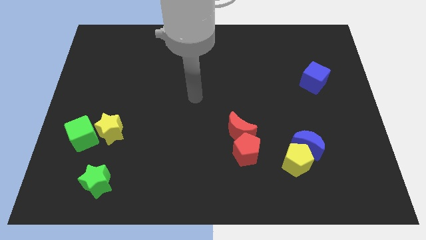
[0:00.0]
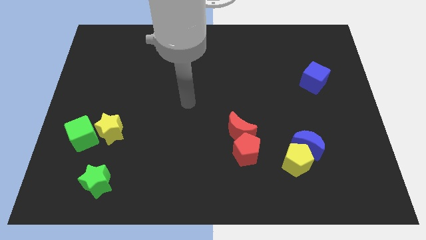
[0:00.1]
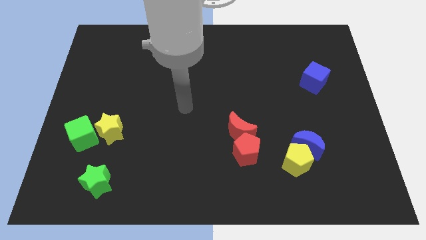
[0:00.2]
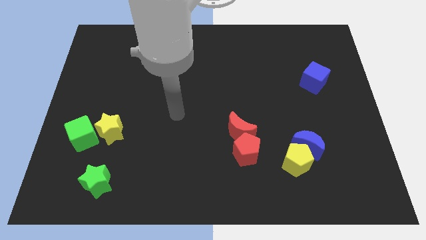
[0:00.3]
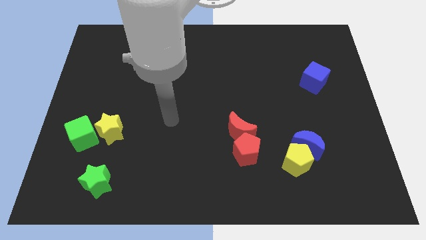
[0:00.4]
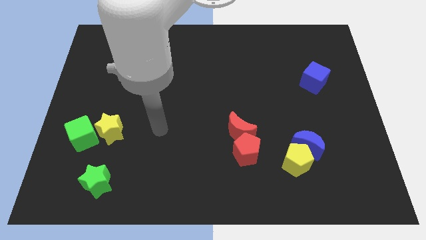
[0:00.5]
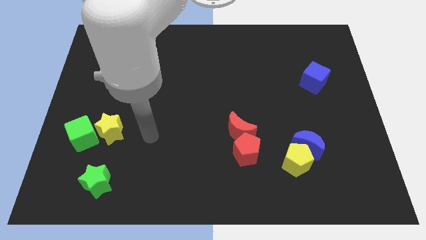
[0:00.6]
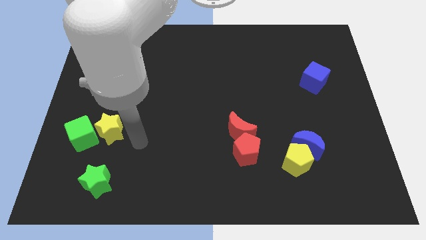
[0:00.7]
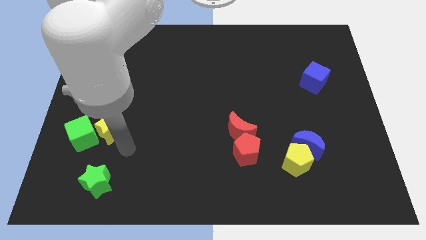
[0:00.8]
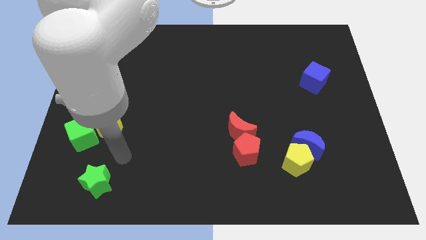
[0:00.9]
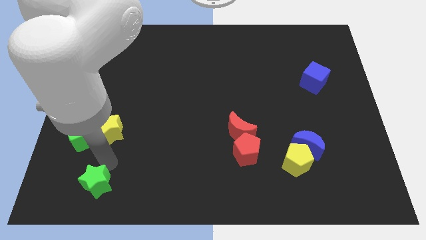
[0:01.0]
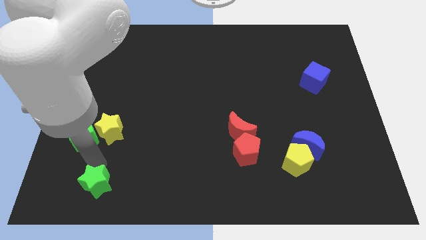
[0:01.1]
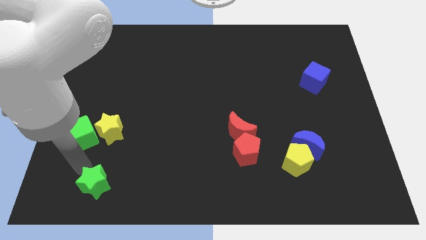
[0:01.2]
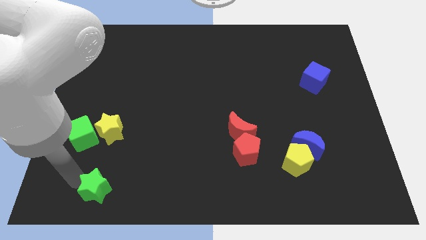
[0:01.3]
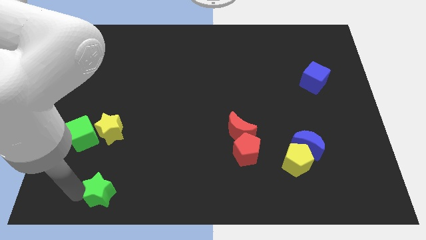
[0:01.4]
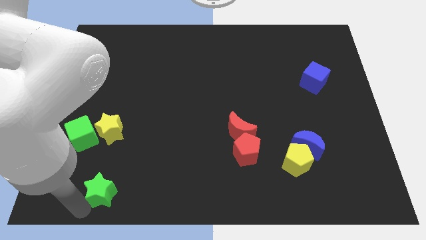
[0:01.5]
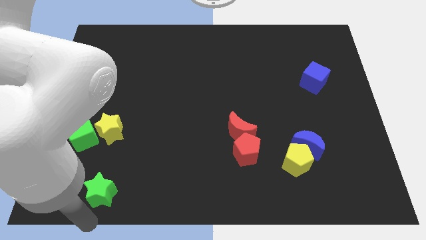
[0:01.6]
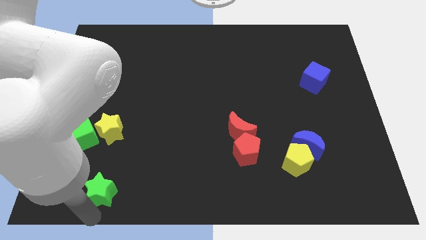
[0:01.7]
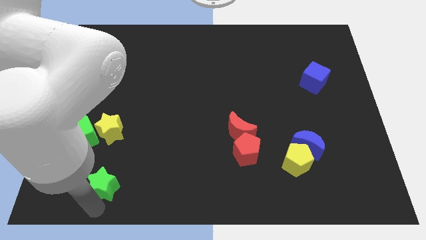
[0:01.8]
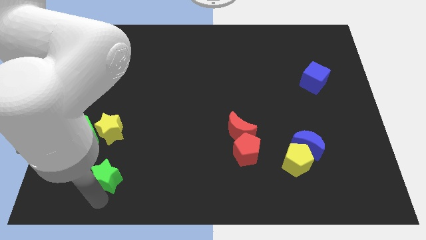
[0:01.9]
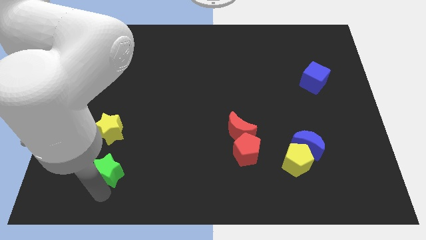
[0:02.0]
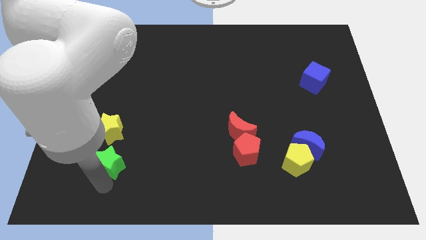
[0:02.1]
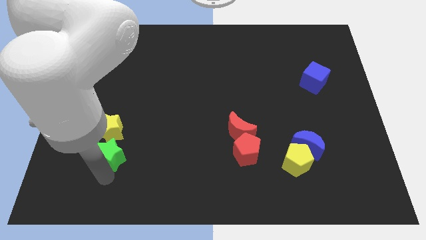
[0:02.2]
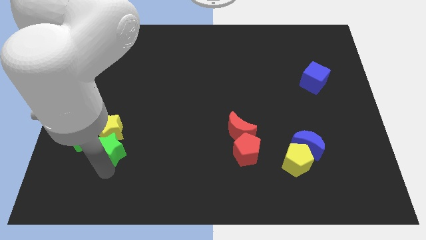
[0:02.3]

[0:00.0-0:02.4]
slide the green star up a little

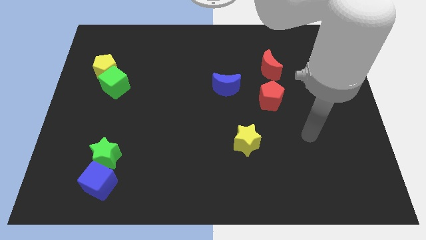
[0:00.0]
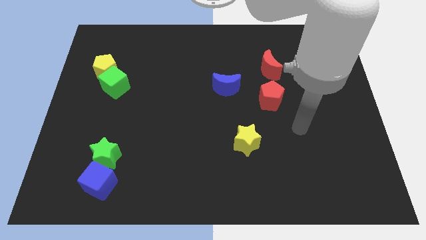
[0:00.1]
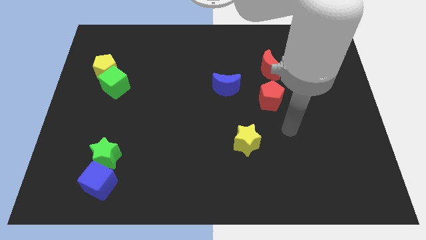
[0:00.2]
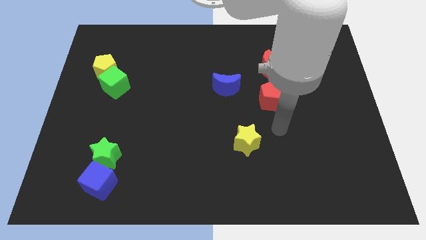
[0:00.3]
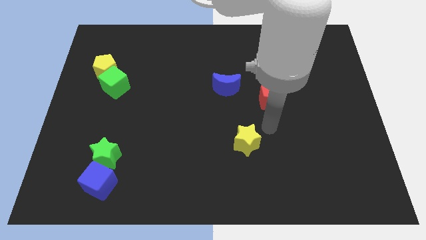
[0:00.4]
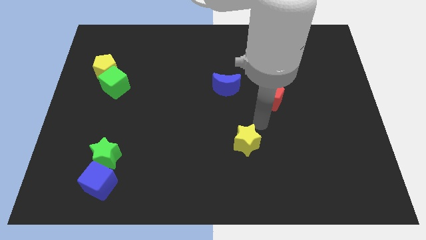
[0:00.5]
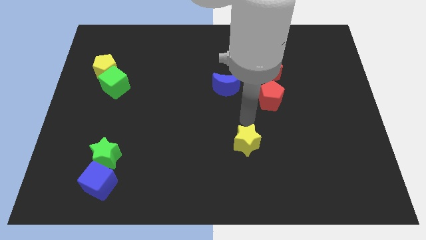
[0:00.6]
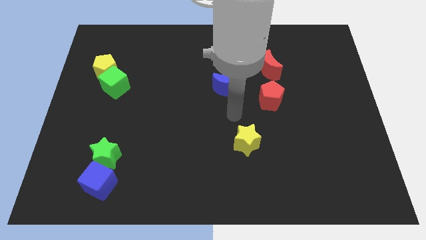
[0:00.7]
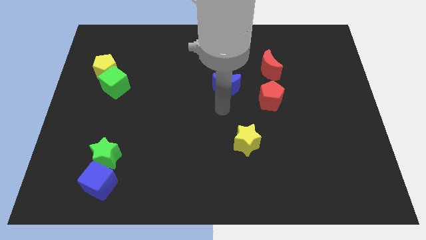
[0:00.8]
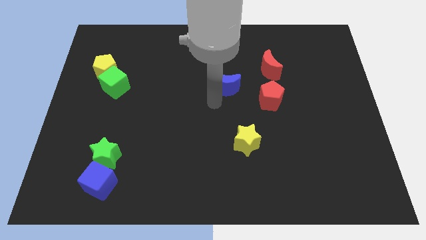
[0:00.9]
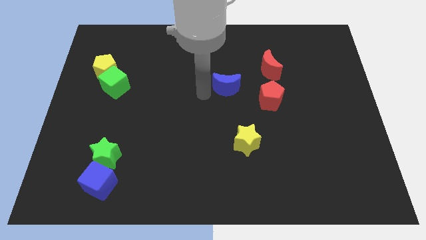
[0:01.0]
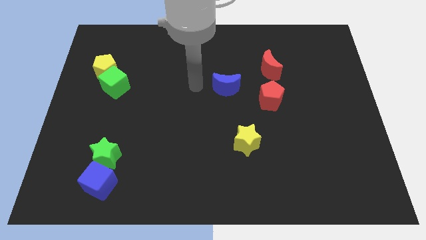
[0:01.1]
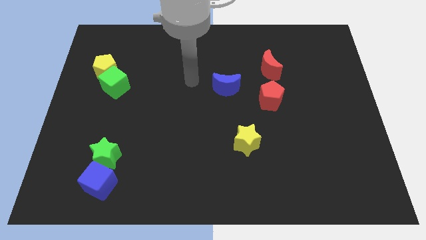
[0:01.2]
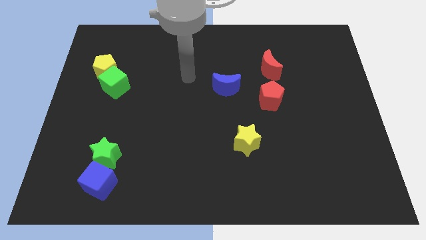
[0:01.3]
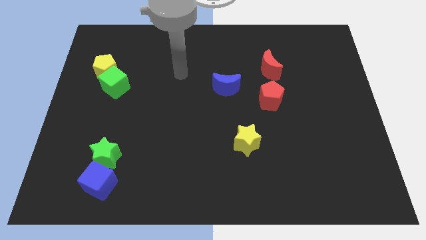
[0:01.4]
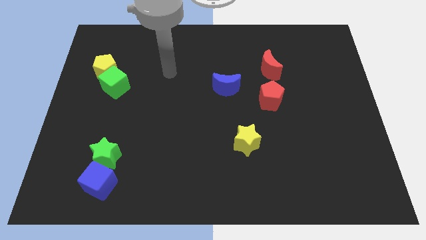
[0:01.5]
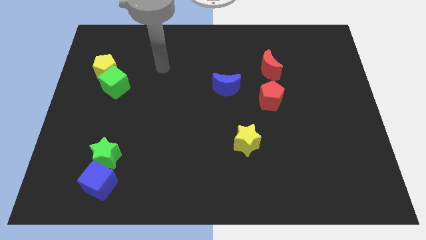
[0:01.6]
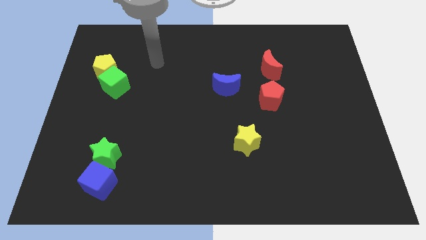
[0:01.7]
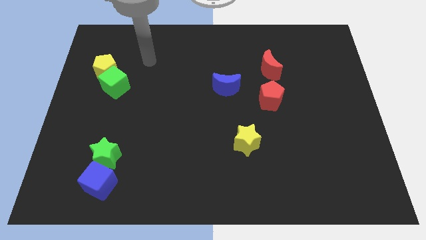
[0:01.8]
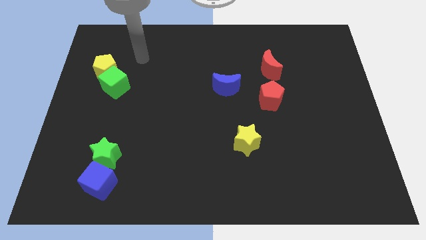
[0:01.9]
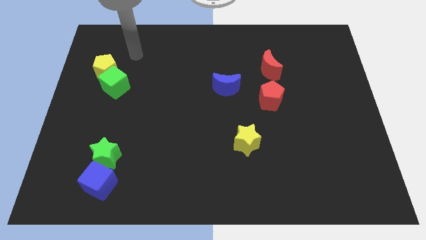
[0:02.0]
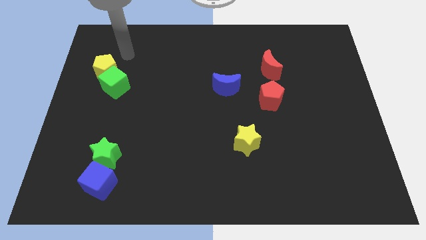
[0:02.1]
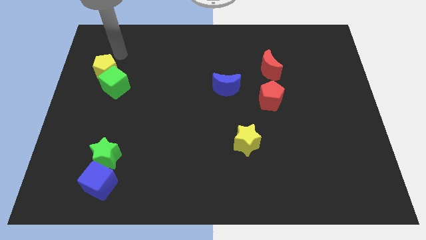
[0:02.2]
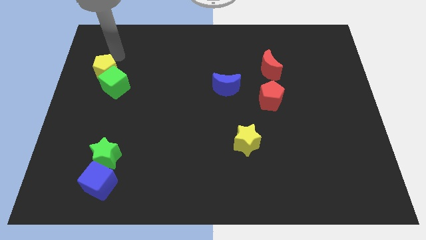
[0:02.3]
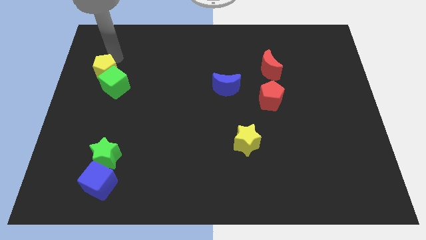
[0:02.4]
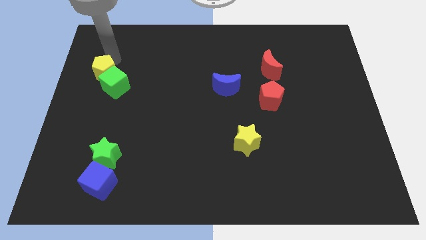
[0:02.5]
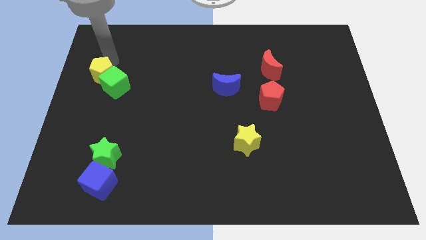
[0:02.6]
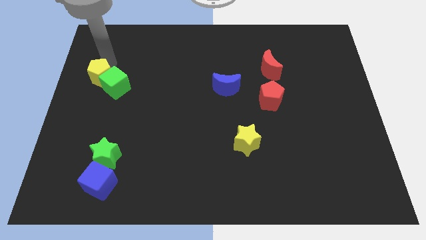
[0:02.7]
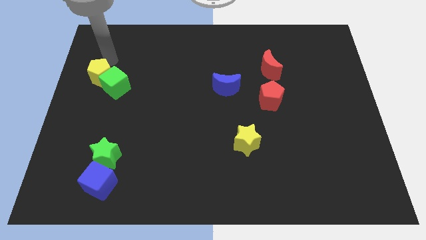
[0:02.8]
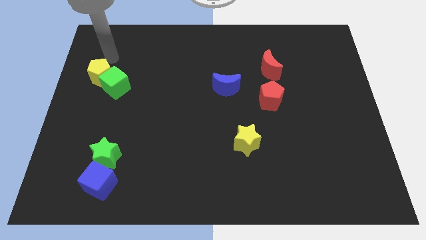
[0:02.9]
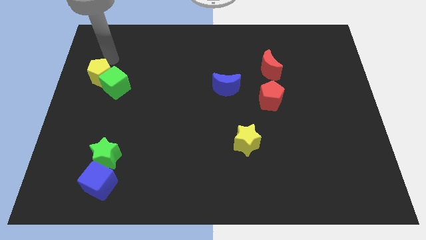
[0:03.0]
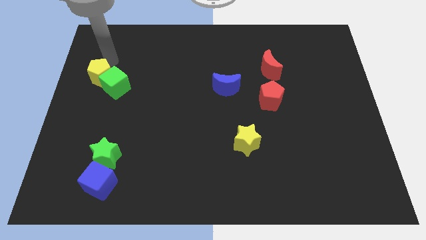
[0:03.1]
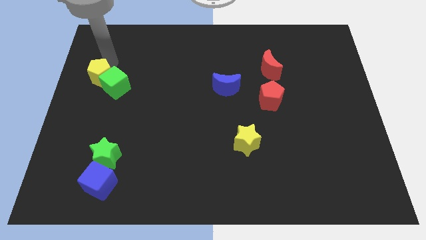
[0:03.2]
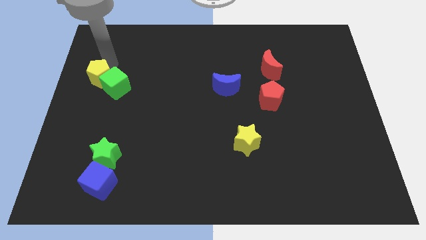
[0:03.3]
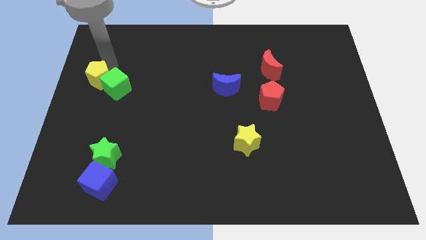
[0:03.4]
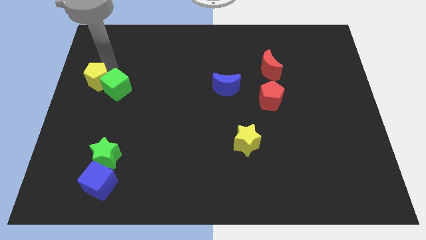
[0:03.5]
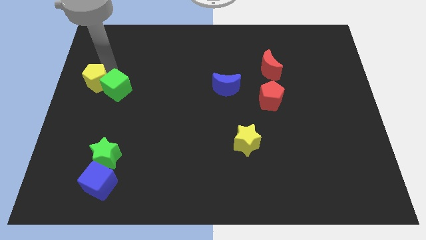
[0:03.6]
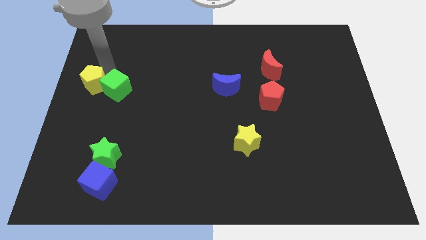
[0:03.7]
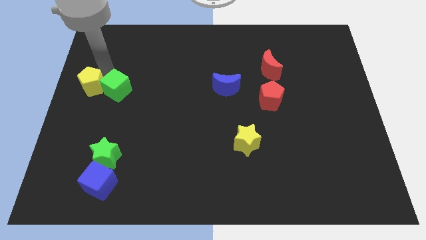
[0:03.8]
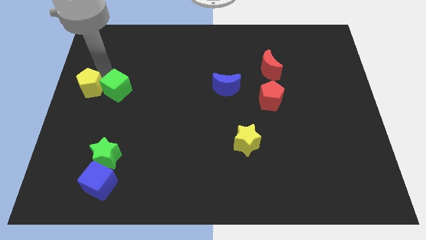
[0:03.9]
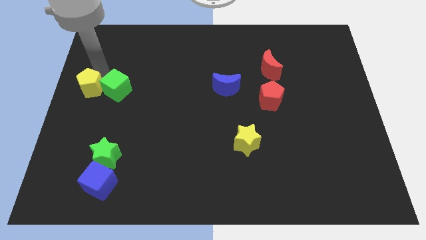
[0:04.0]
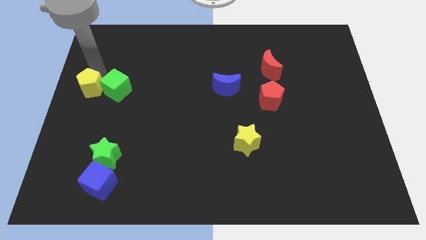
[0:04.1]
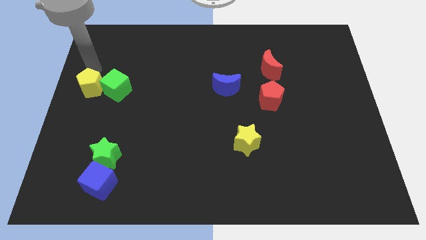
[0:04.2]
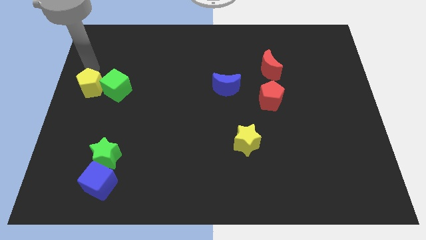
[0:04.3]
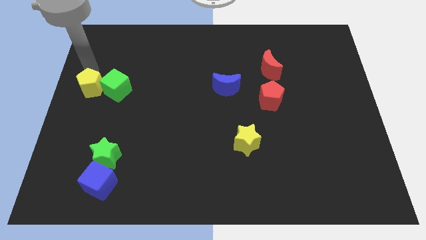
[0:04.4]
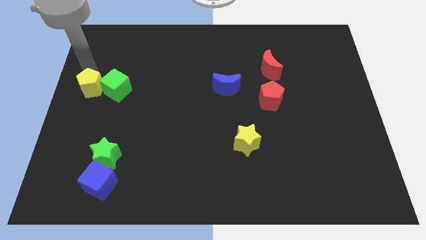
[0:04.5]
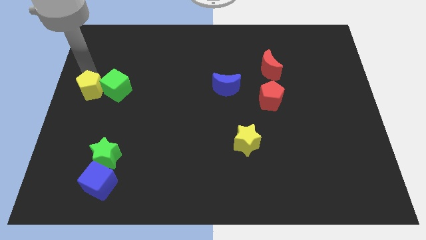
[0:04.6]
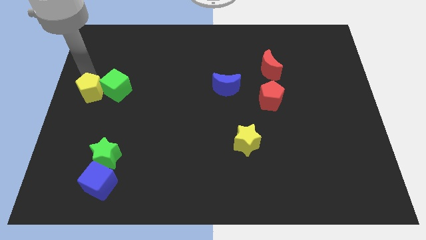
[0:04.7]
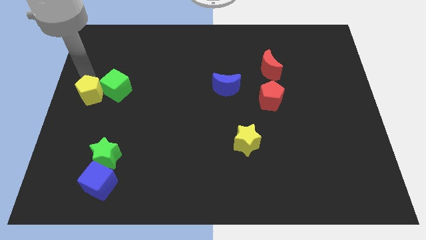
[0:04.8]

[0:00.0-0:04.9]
push the yellow pentagon down slightly

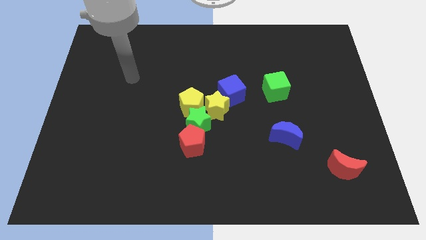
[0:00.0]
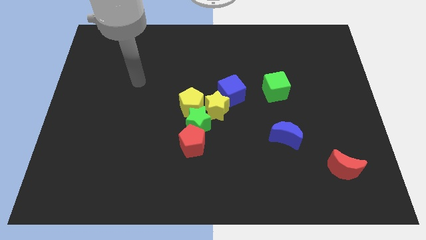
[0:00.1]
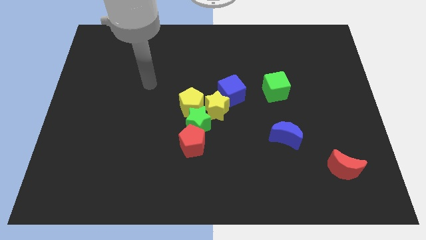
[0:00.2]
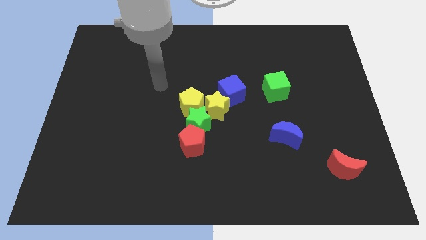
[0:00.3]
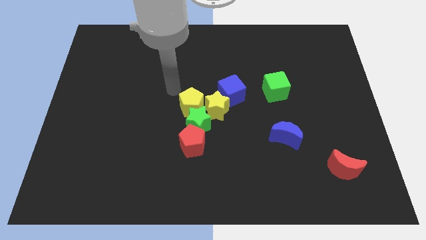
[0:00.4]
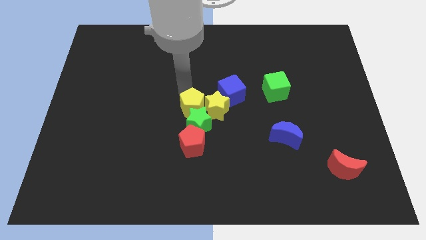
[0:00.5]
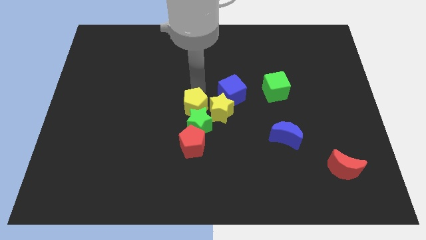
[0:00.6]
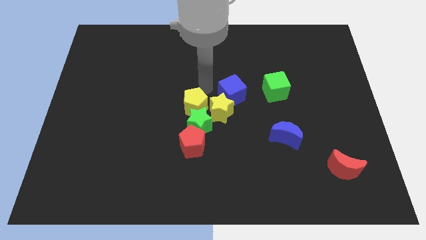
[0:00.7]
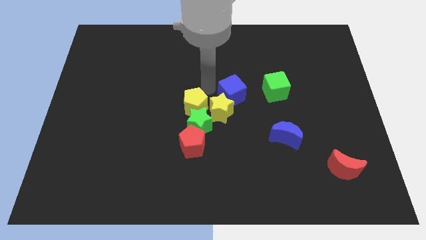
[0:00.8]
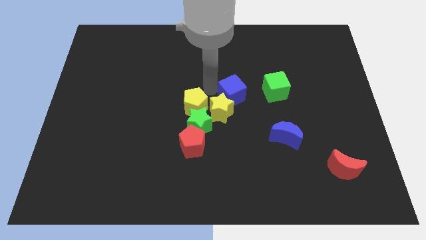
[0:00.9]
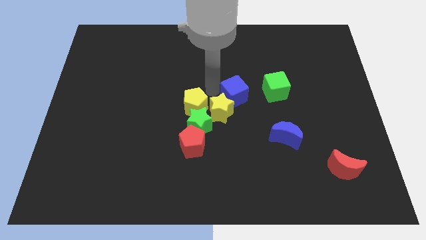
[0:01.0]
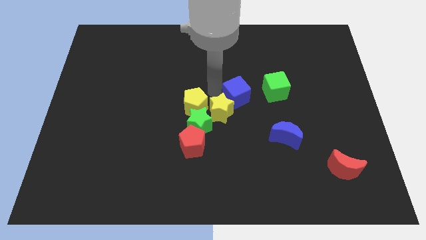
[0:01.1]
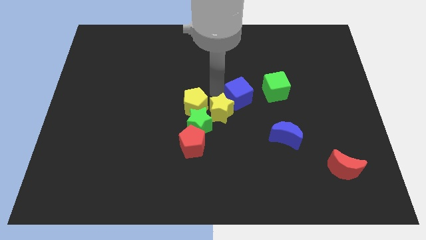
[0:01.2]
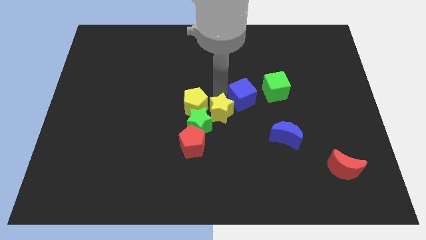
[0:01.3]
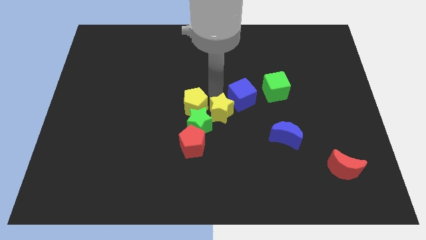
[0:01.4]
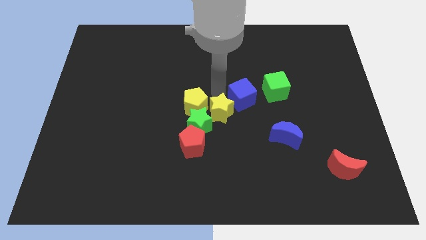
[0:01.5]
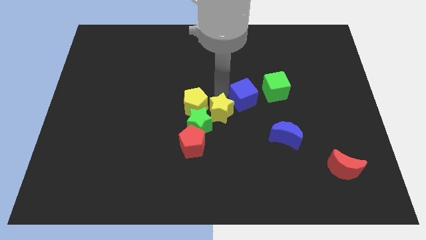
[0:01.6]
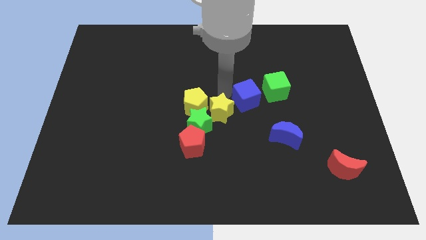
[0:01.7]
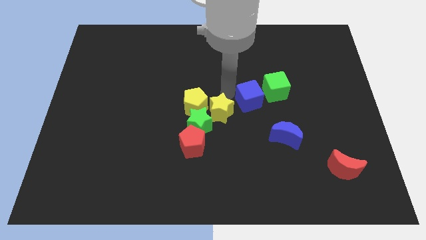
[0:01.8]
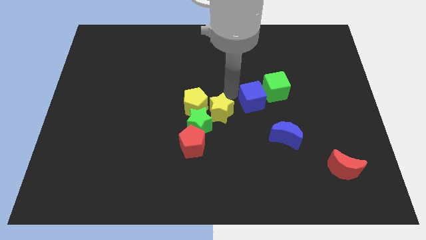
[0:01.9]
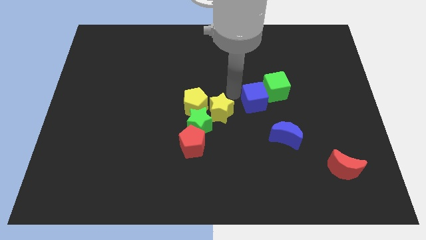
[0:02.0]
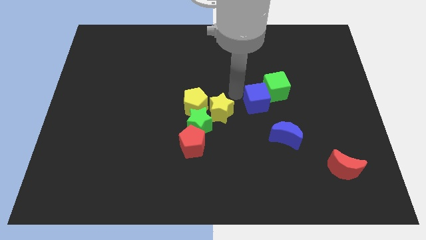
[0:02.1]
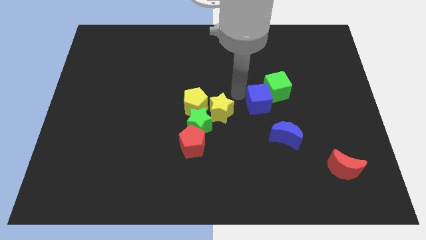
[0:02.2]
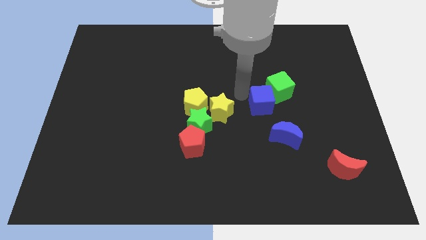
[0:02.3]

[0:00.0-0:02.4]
move the blue cube right slightly
